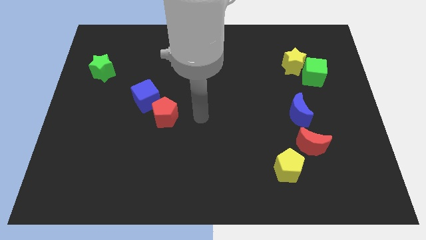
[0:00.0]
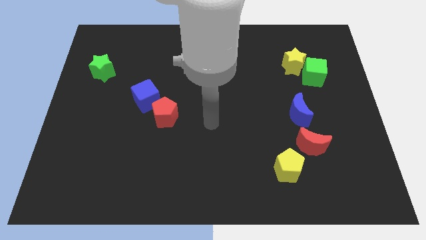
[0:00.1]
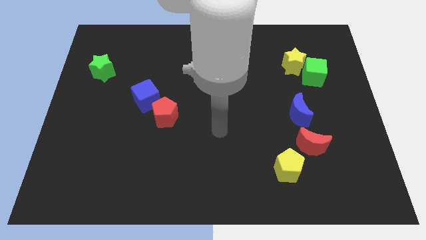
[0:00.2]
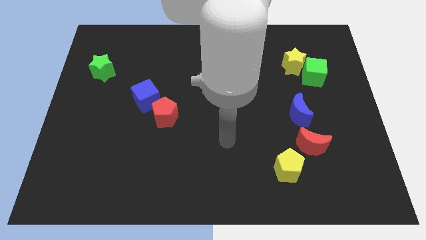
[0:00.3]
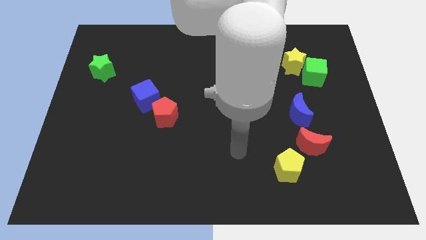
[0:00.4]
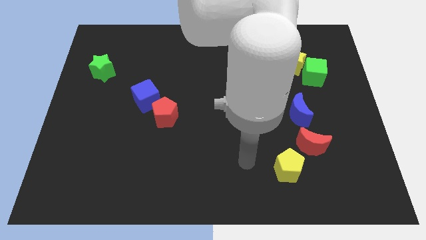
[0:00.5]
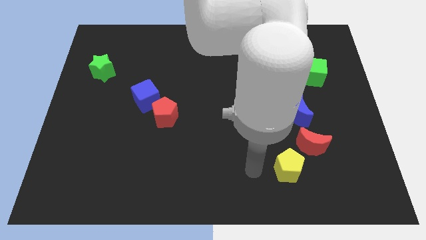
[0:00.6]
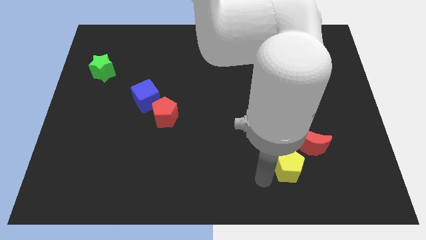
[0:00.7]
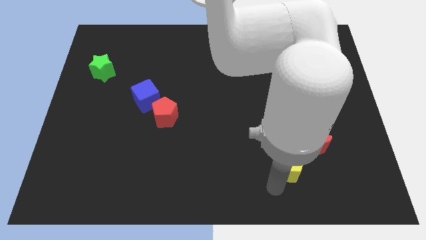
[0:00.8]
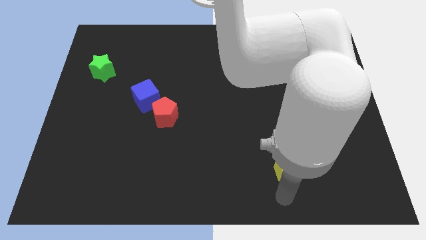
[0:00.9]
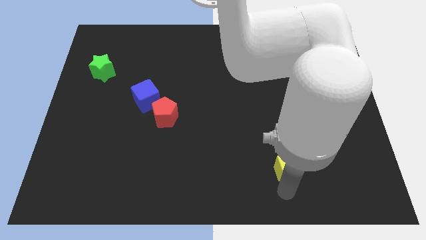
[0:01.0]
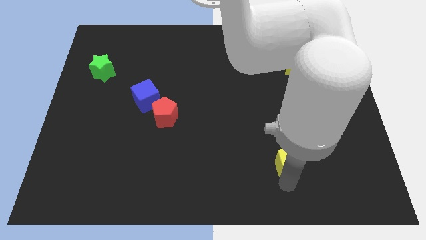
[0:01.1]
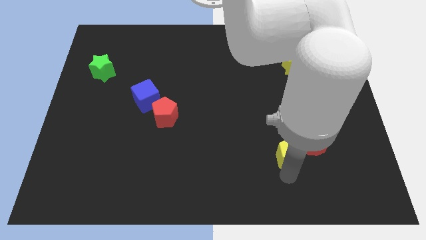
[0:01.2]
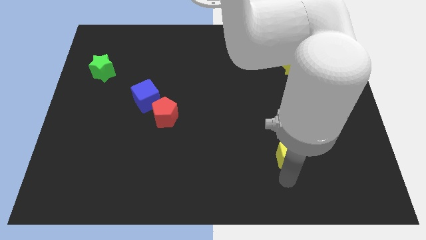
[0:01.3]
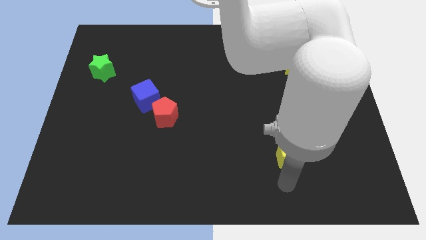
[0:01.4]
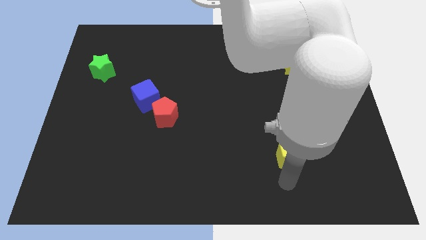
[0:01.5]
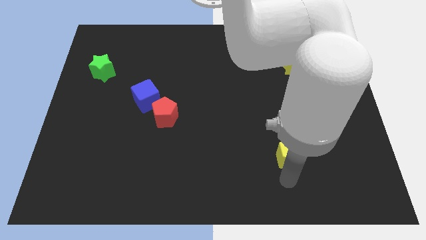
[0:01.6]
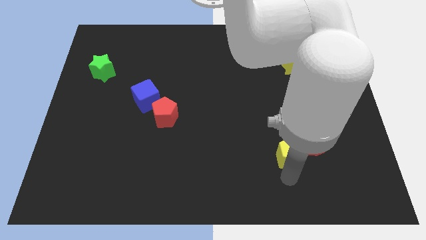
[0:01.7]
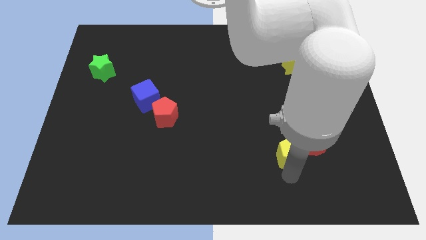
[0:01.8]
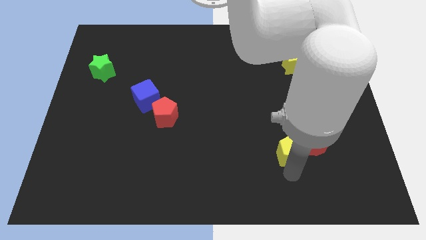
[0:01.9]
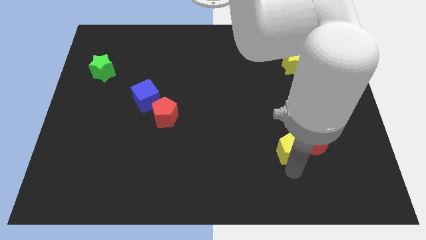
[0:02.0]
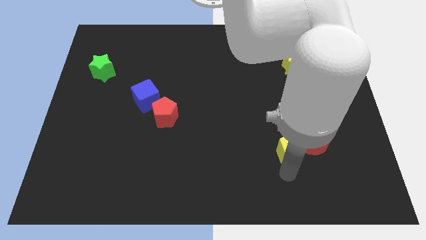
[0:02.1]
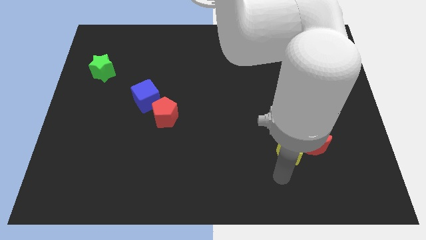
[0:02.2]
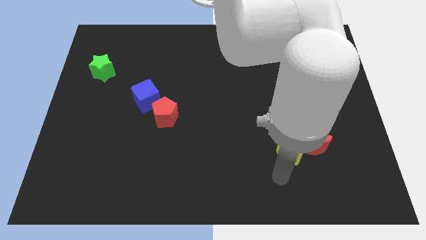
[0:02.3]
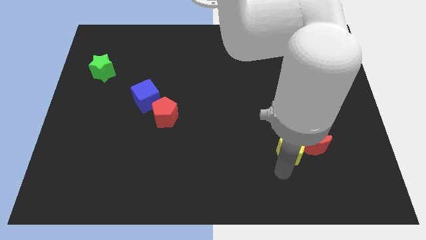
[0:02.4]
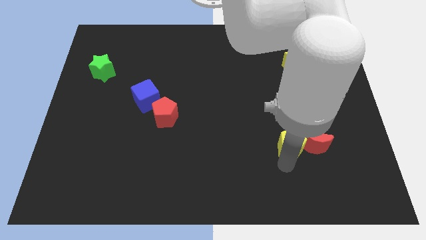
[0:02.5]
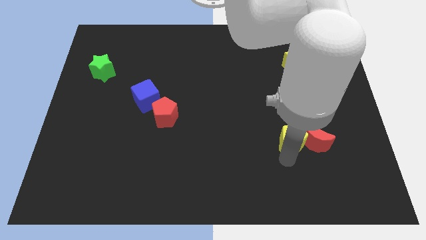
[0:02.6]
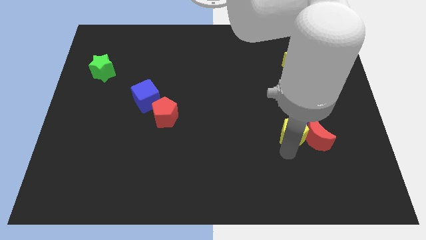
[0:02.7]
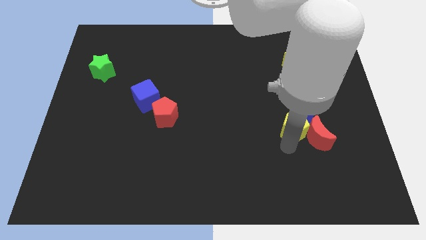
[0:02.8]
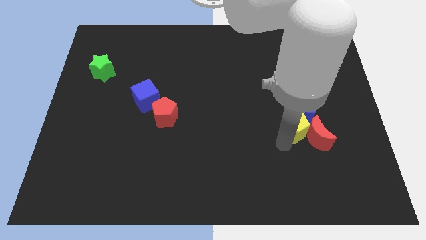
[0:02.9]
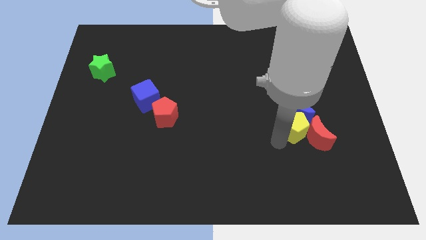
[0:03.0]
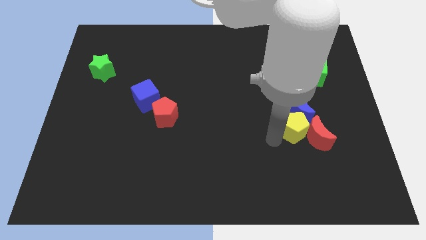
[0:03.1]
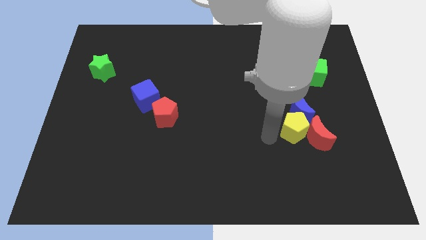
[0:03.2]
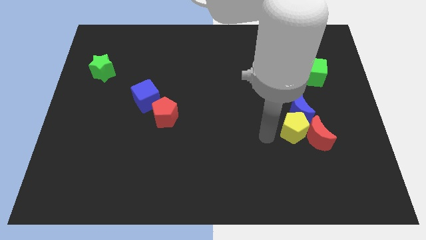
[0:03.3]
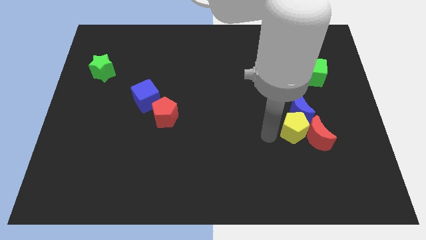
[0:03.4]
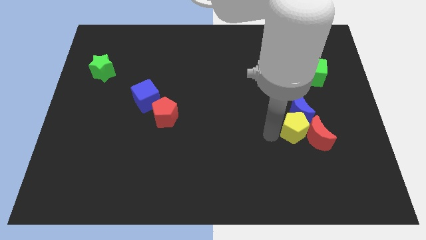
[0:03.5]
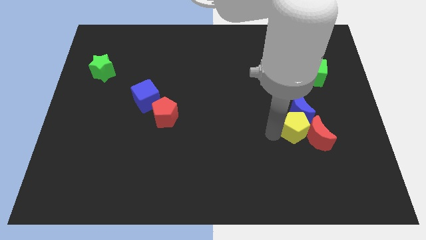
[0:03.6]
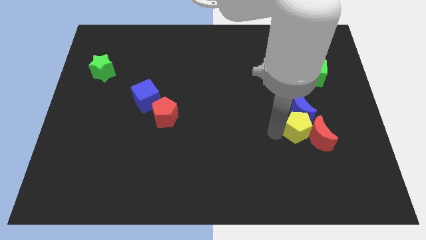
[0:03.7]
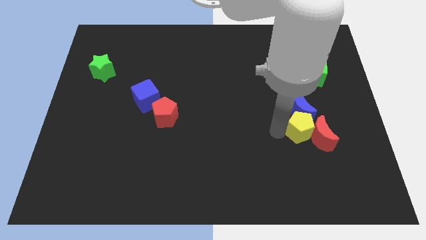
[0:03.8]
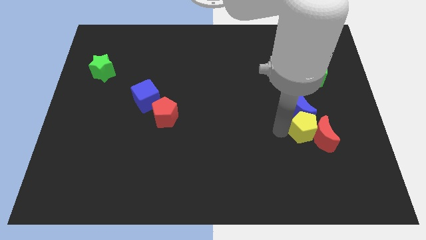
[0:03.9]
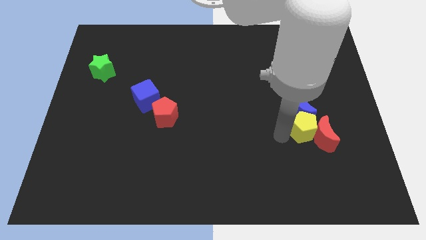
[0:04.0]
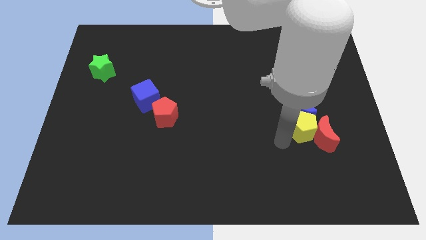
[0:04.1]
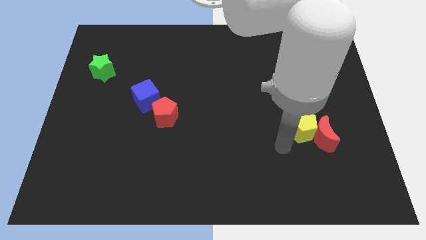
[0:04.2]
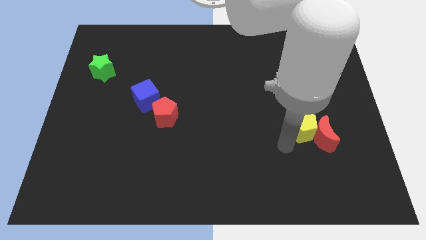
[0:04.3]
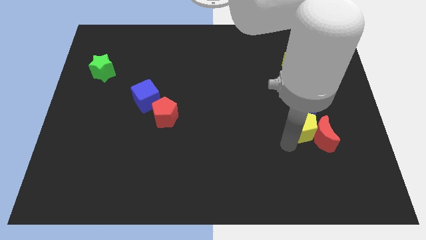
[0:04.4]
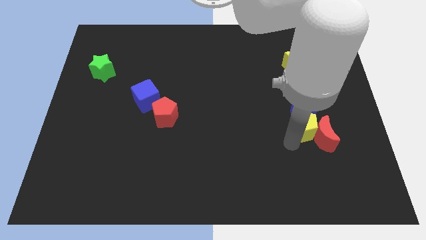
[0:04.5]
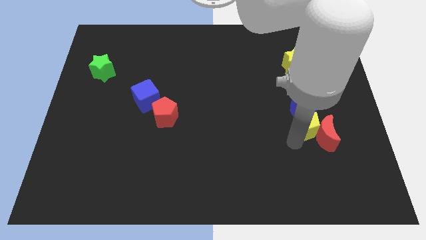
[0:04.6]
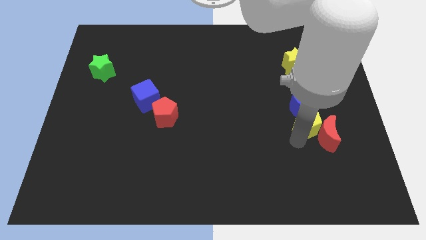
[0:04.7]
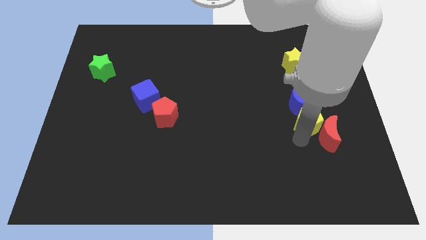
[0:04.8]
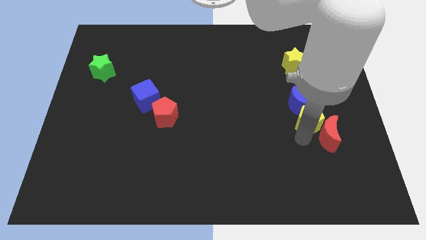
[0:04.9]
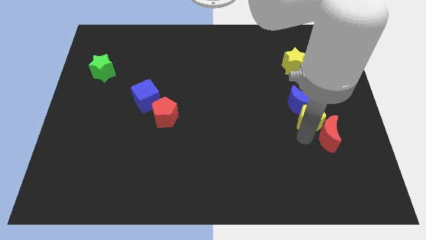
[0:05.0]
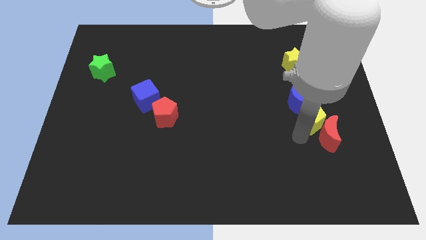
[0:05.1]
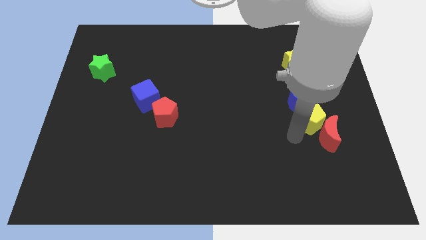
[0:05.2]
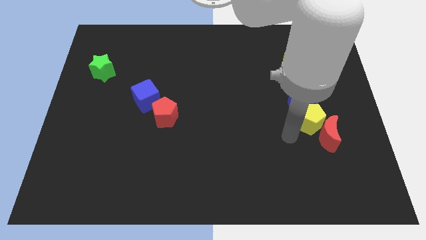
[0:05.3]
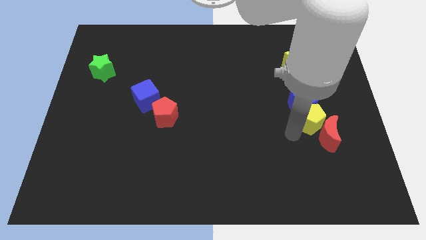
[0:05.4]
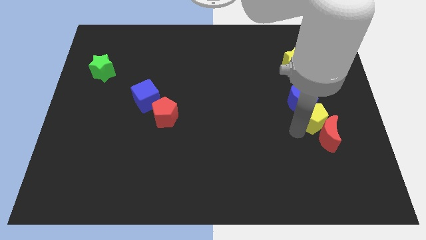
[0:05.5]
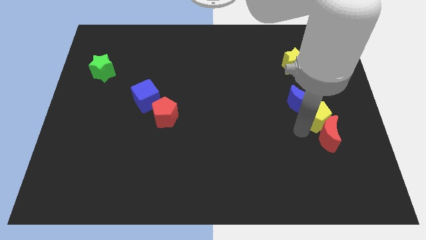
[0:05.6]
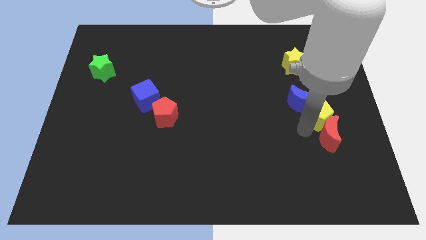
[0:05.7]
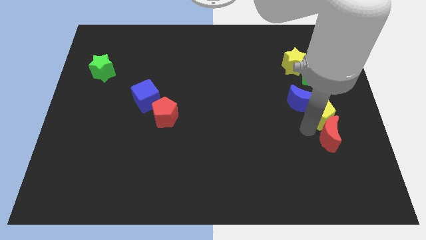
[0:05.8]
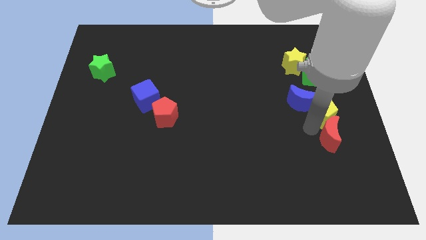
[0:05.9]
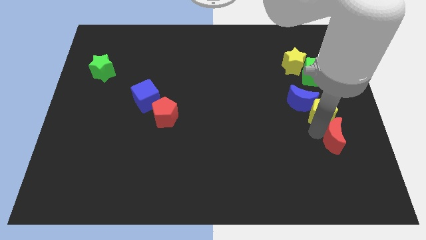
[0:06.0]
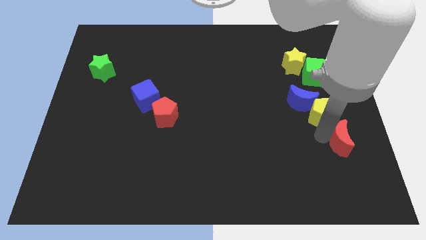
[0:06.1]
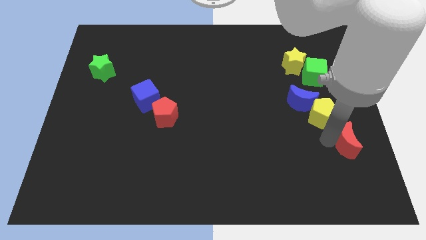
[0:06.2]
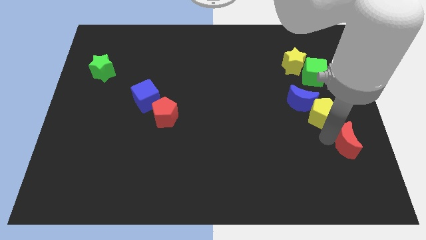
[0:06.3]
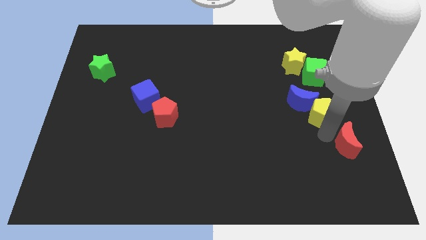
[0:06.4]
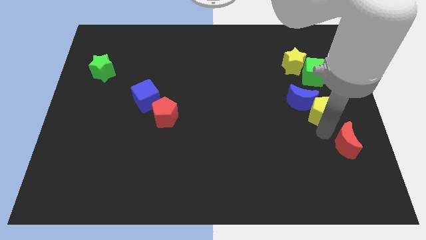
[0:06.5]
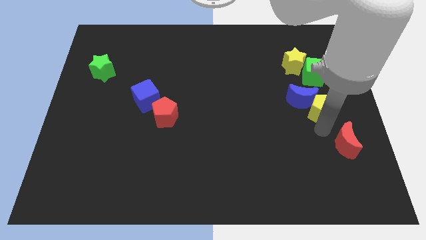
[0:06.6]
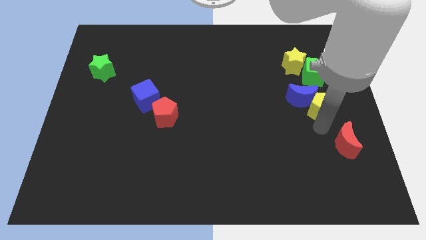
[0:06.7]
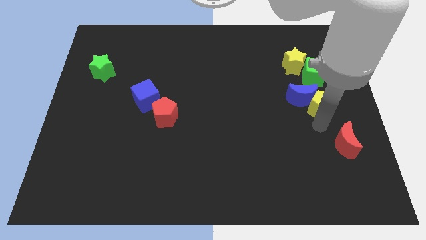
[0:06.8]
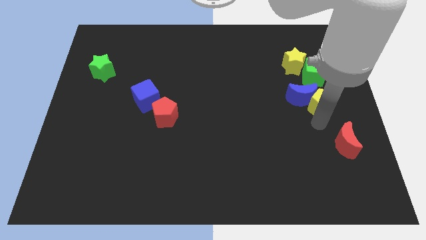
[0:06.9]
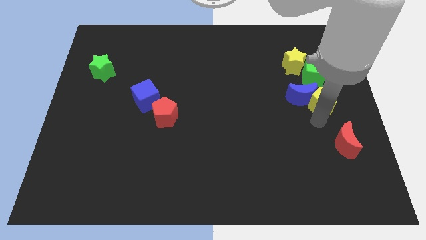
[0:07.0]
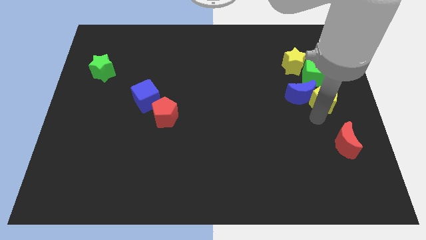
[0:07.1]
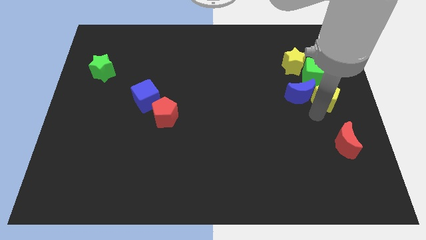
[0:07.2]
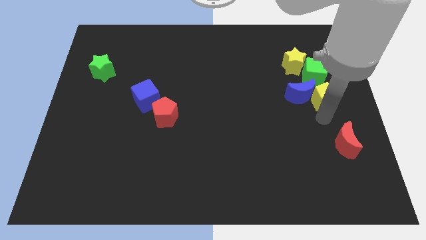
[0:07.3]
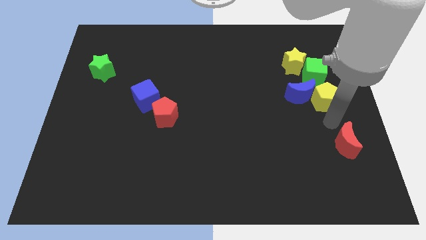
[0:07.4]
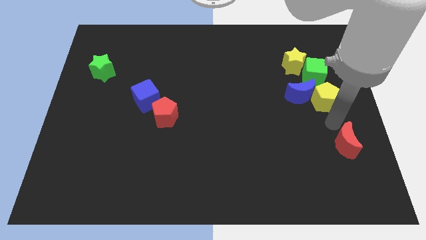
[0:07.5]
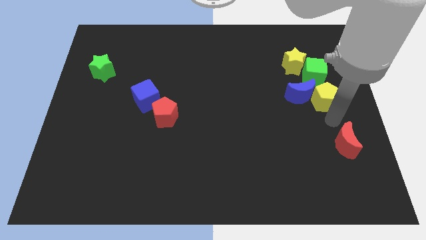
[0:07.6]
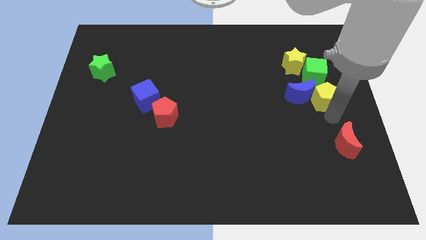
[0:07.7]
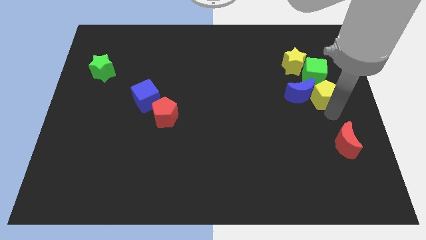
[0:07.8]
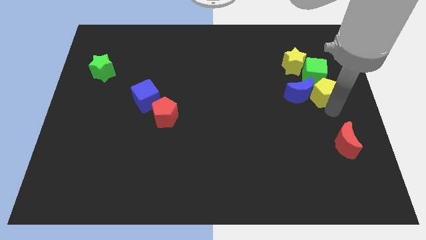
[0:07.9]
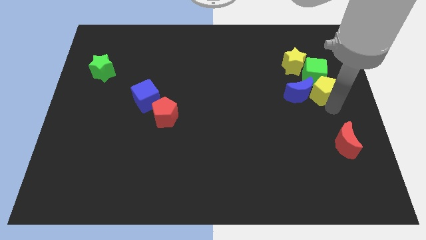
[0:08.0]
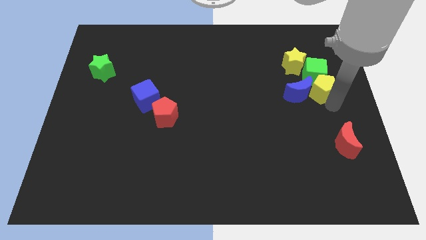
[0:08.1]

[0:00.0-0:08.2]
put the yellow pentagon close to the green cube
